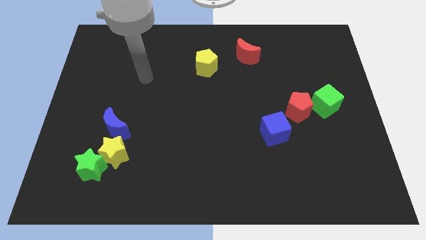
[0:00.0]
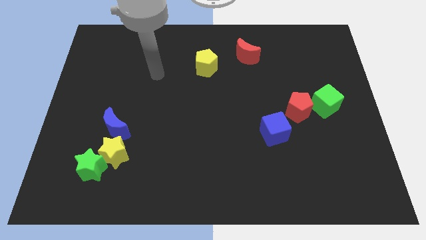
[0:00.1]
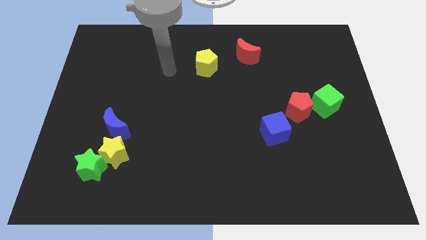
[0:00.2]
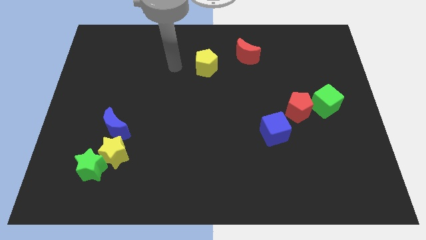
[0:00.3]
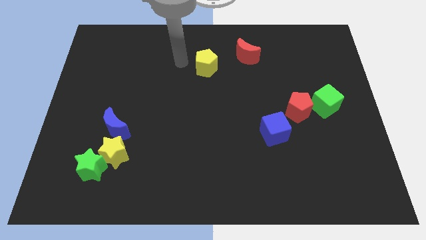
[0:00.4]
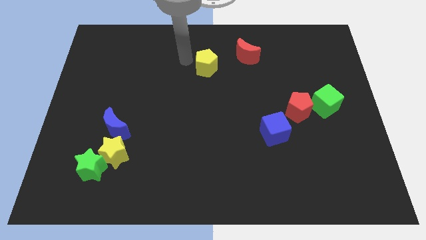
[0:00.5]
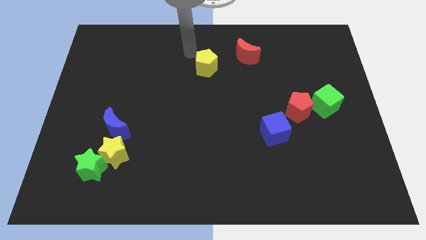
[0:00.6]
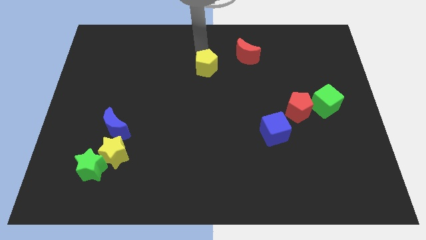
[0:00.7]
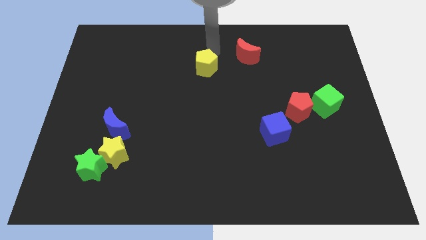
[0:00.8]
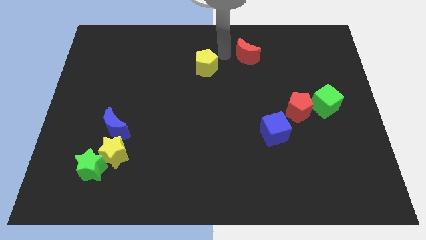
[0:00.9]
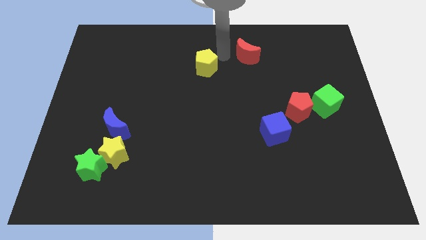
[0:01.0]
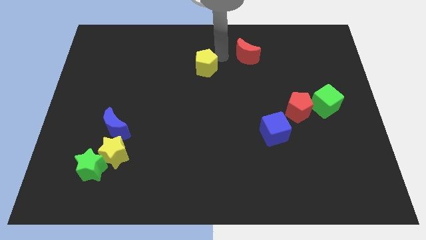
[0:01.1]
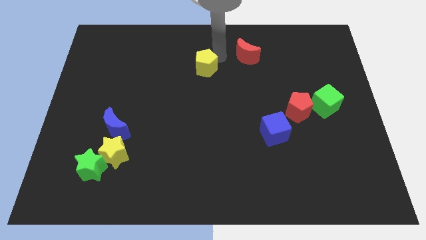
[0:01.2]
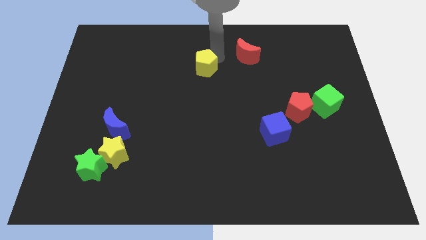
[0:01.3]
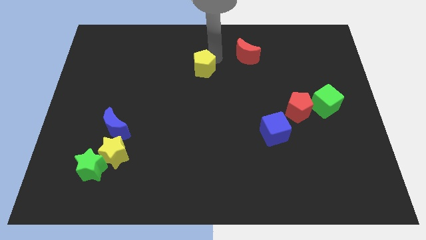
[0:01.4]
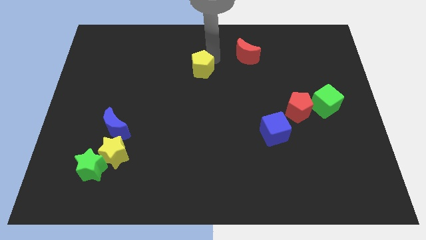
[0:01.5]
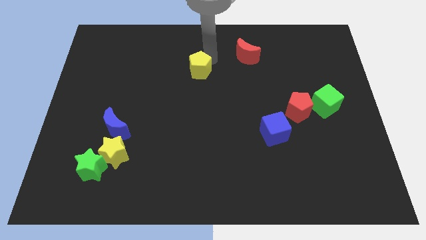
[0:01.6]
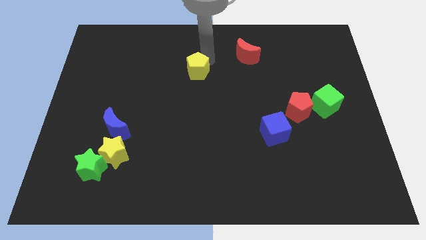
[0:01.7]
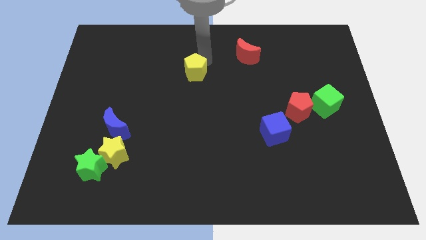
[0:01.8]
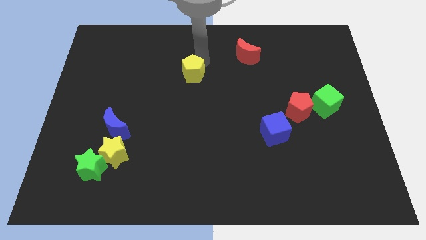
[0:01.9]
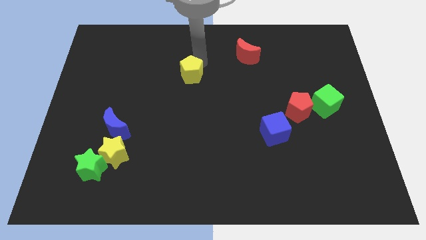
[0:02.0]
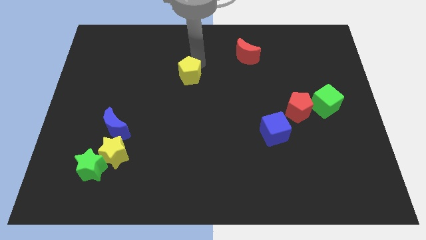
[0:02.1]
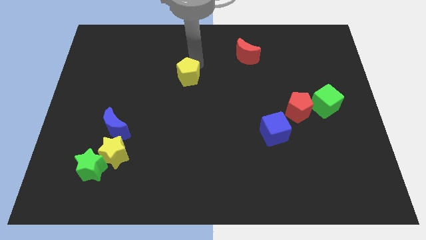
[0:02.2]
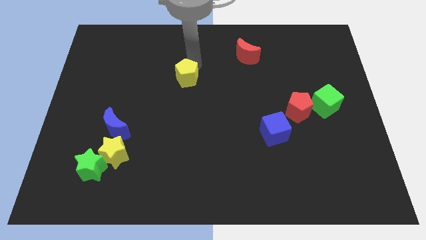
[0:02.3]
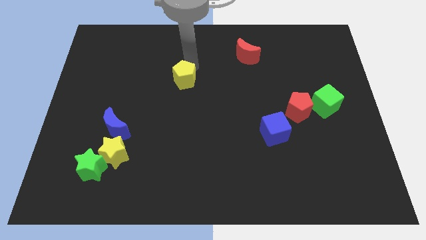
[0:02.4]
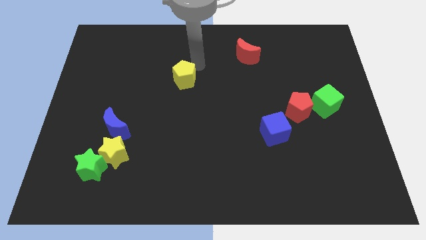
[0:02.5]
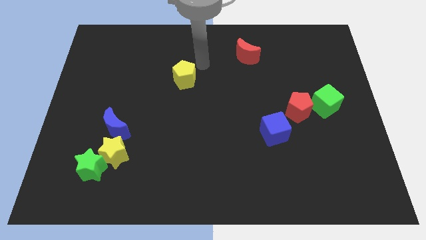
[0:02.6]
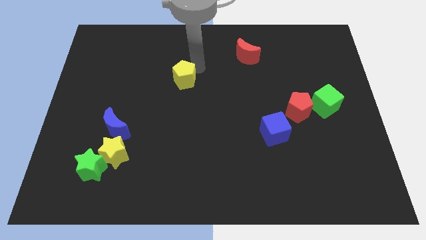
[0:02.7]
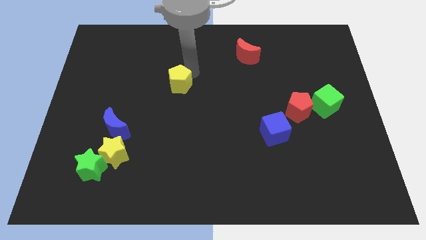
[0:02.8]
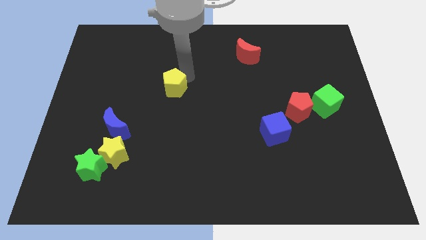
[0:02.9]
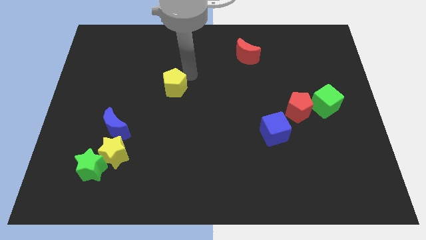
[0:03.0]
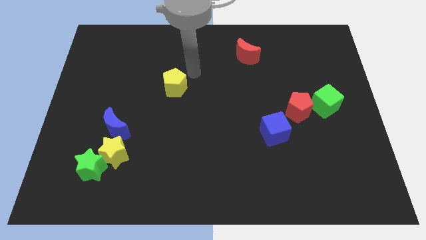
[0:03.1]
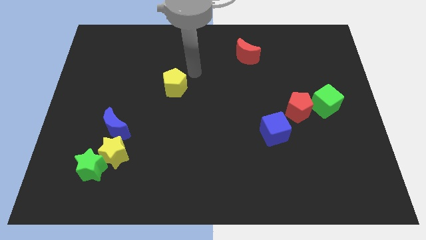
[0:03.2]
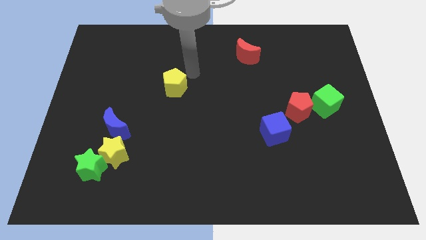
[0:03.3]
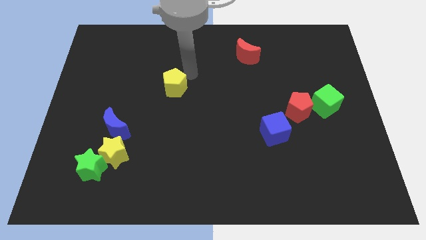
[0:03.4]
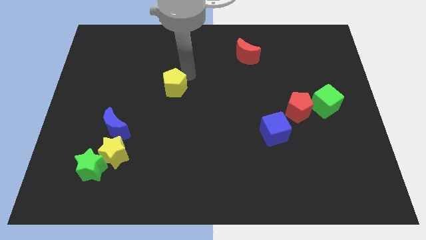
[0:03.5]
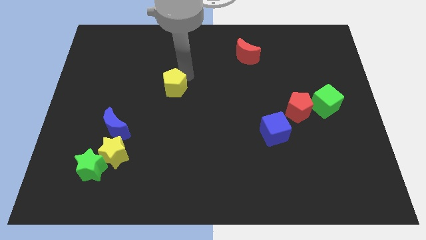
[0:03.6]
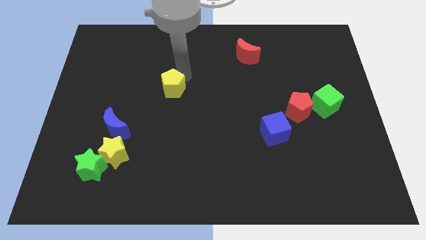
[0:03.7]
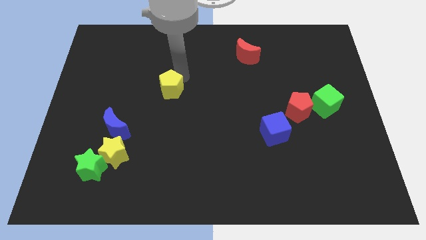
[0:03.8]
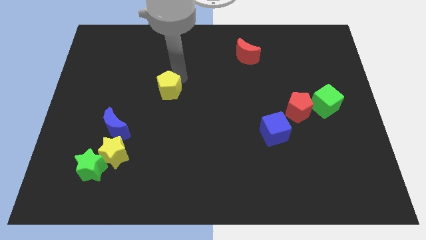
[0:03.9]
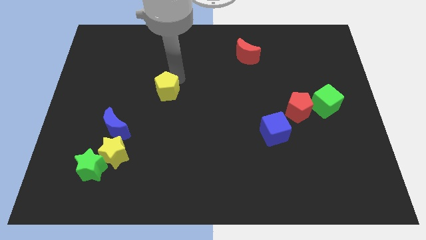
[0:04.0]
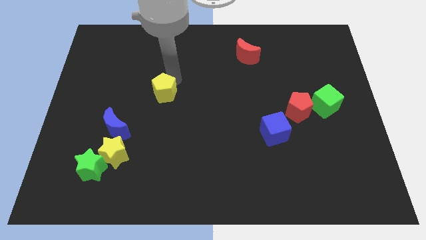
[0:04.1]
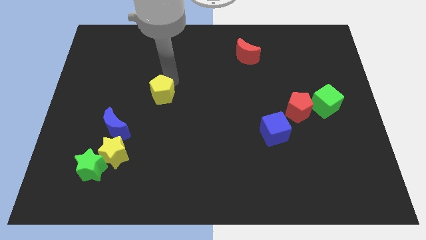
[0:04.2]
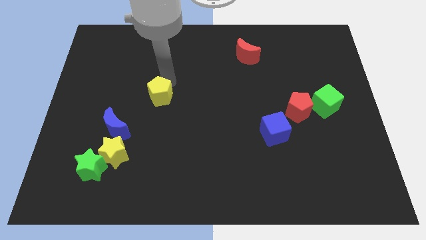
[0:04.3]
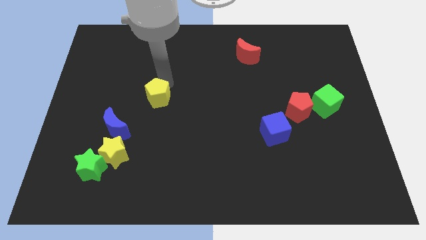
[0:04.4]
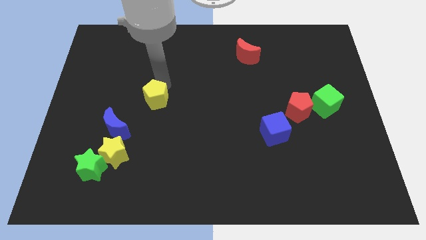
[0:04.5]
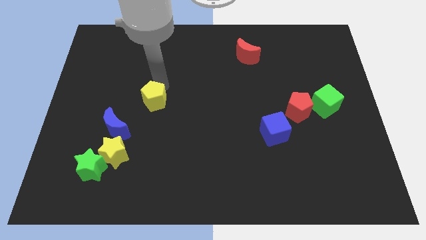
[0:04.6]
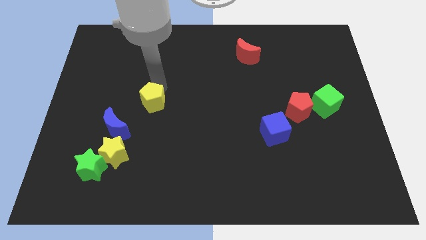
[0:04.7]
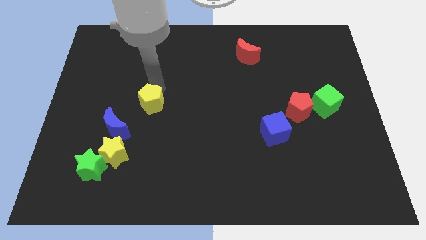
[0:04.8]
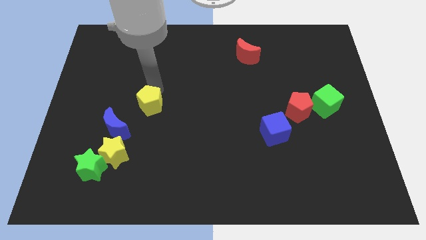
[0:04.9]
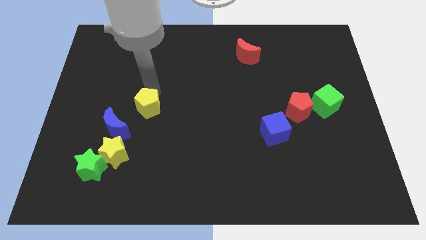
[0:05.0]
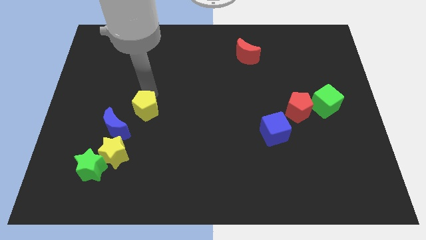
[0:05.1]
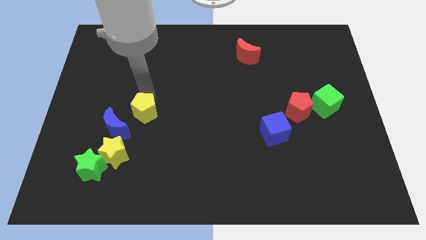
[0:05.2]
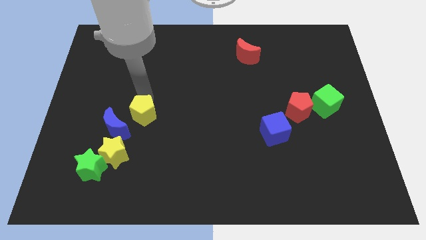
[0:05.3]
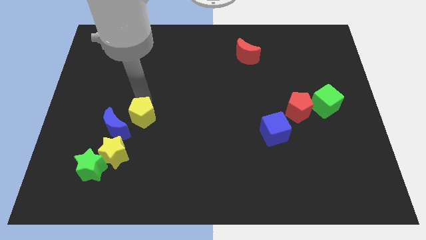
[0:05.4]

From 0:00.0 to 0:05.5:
put the yellow pentagon to the top right of the yellow star

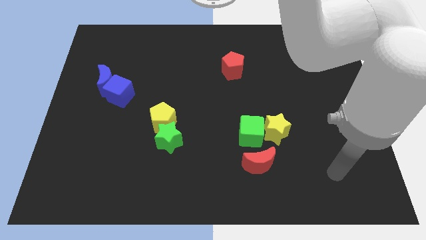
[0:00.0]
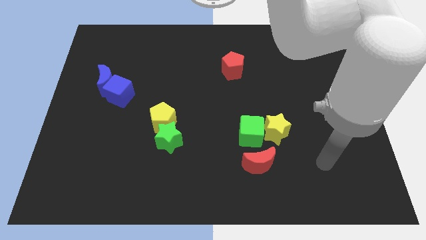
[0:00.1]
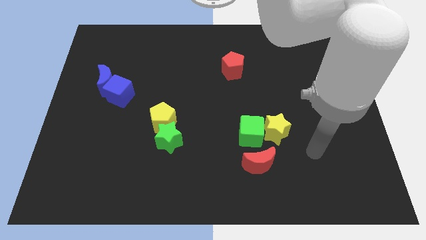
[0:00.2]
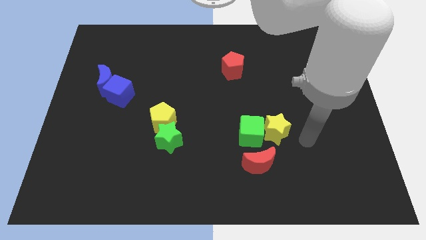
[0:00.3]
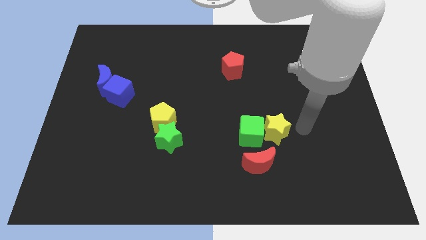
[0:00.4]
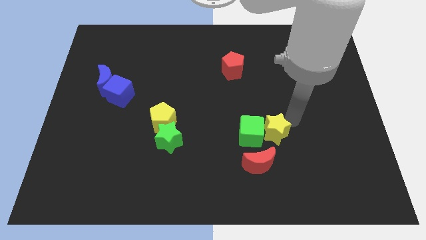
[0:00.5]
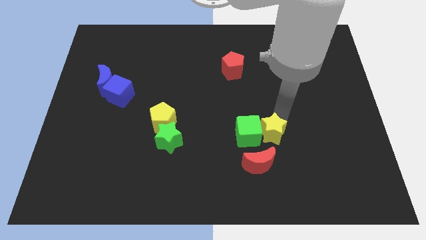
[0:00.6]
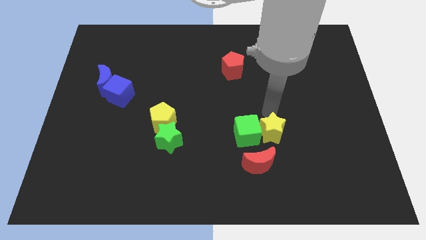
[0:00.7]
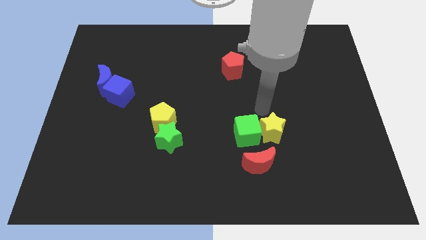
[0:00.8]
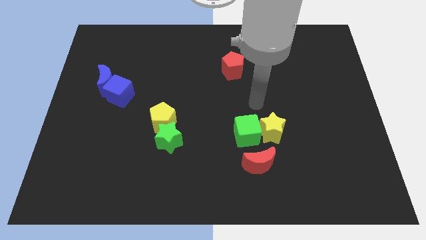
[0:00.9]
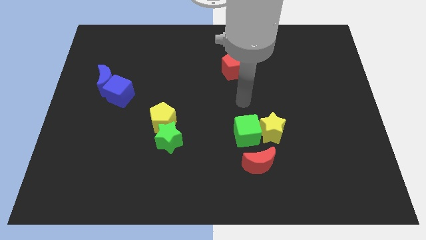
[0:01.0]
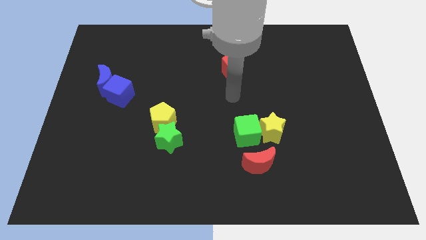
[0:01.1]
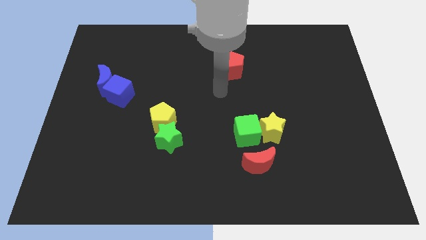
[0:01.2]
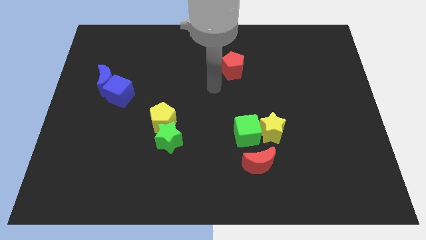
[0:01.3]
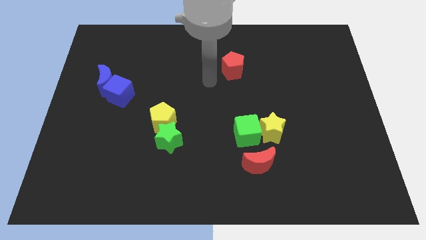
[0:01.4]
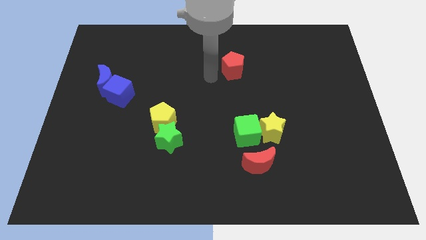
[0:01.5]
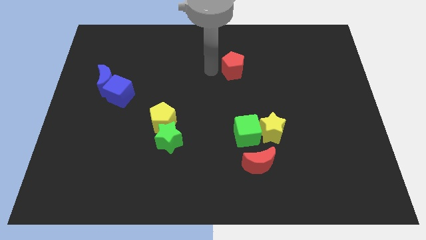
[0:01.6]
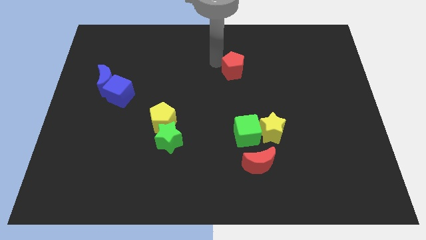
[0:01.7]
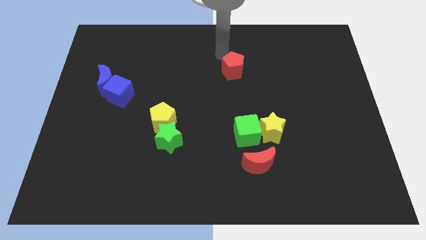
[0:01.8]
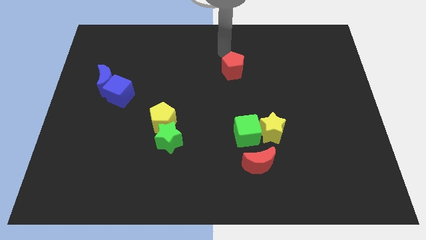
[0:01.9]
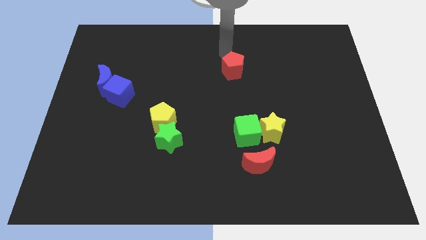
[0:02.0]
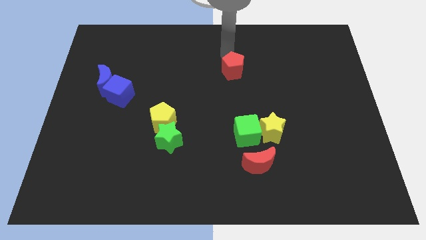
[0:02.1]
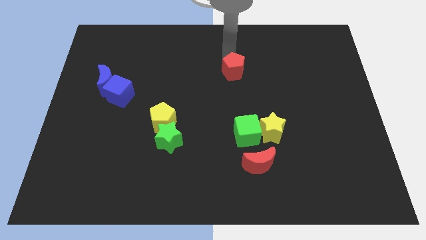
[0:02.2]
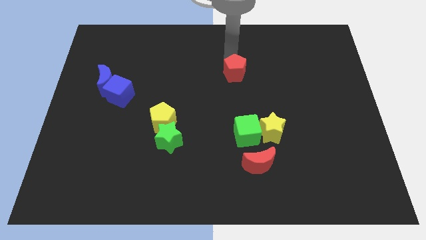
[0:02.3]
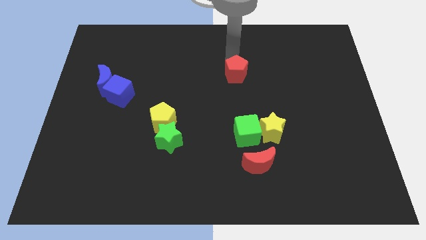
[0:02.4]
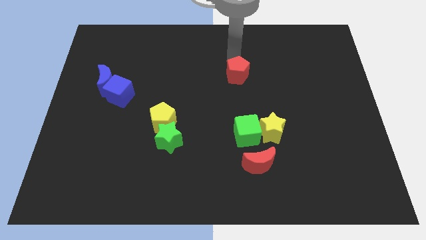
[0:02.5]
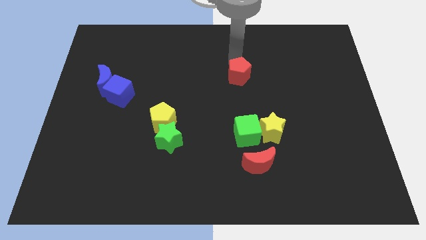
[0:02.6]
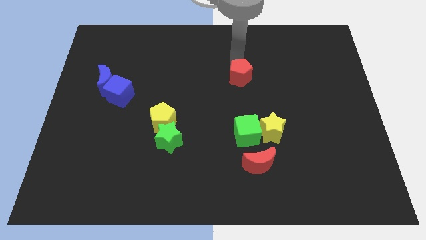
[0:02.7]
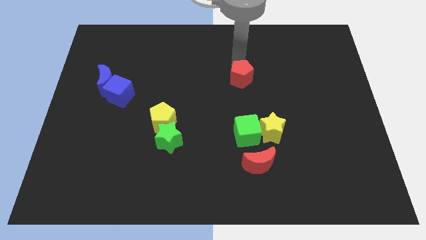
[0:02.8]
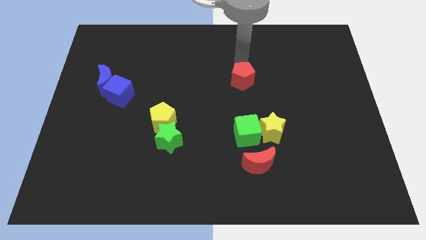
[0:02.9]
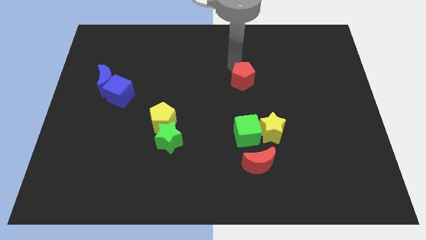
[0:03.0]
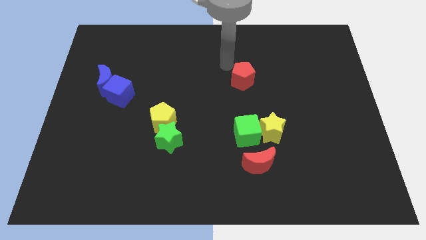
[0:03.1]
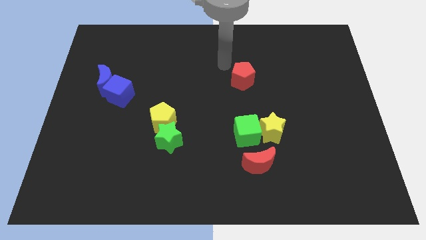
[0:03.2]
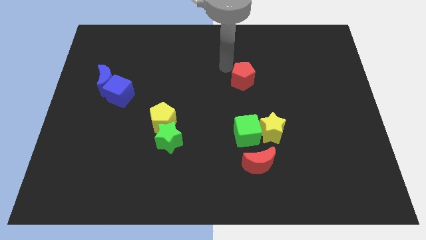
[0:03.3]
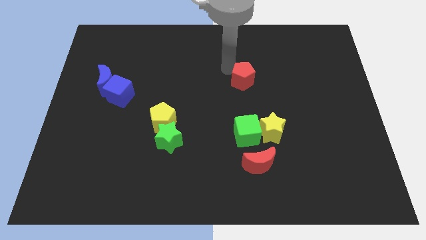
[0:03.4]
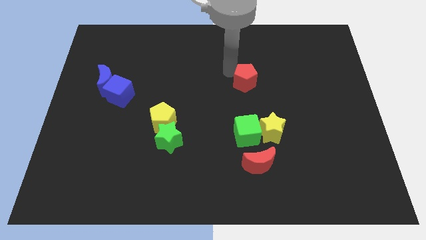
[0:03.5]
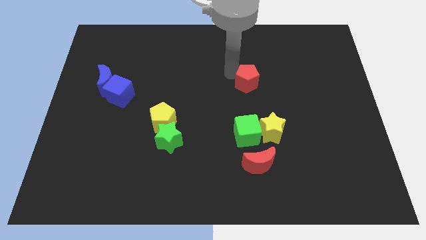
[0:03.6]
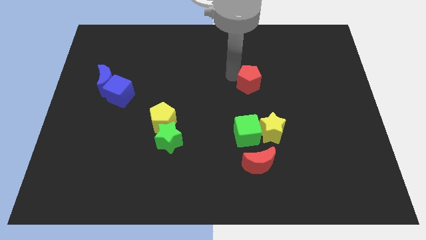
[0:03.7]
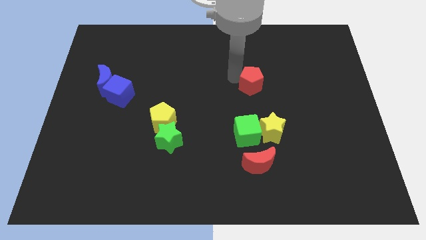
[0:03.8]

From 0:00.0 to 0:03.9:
push the red pentagon to the top of the yellow star
